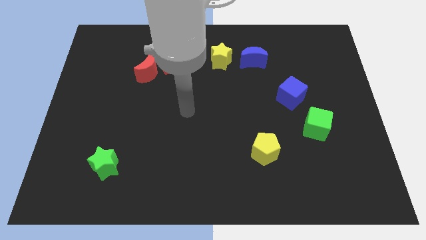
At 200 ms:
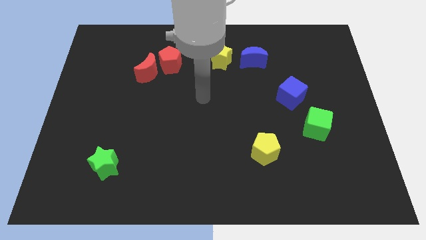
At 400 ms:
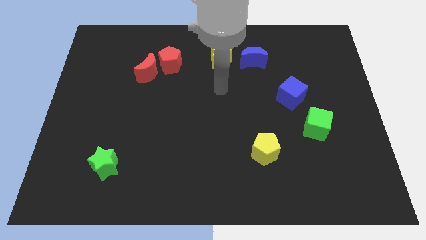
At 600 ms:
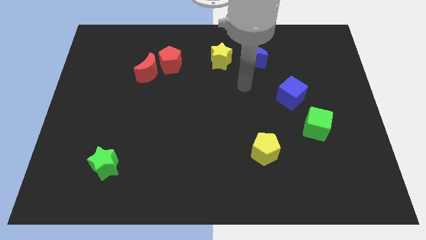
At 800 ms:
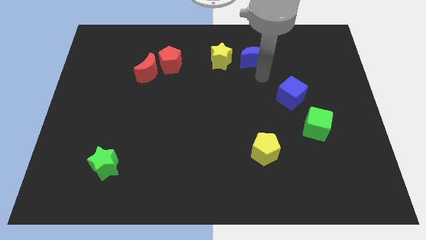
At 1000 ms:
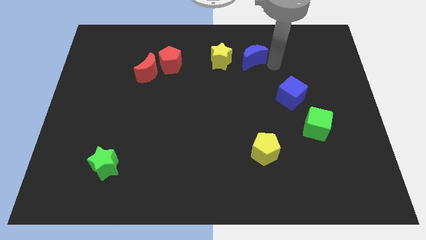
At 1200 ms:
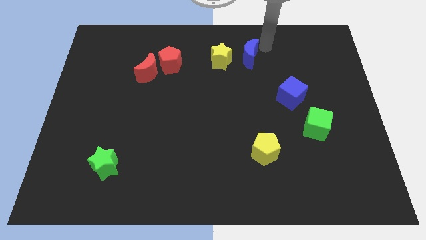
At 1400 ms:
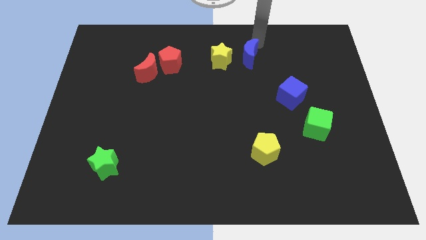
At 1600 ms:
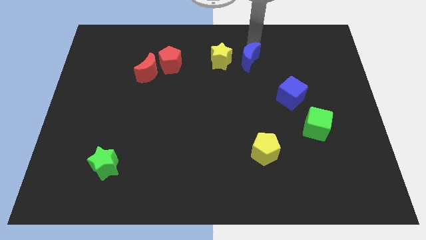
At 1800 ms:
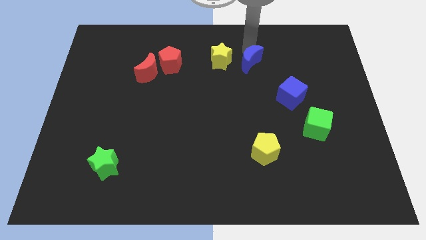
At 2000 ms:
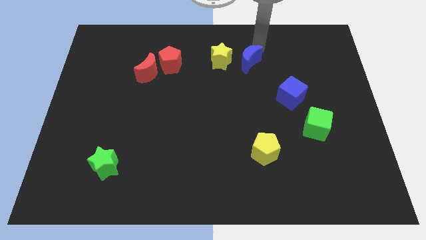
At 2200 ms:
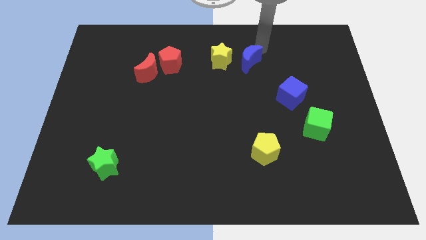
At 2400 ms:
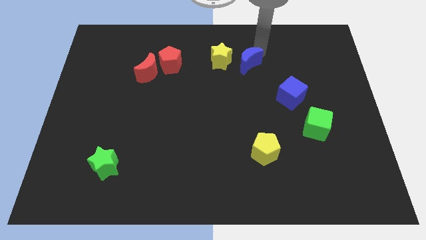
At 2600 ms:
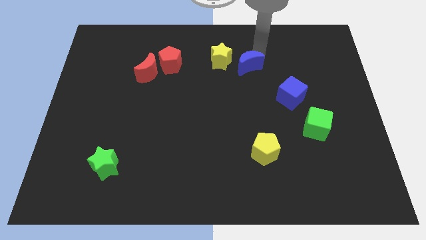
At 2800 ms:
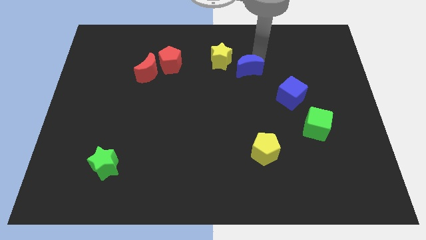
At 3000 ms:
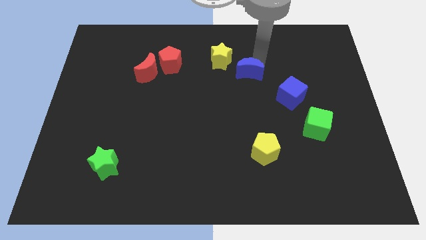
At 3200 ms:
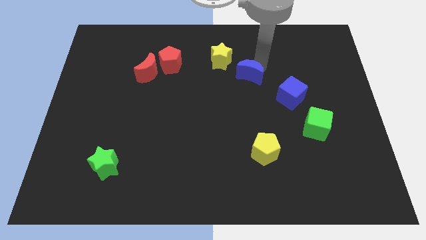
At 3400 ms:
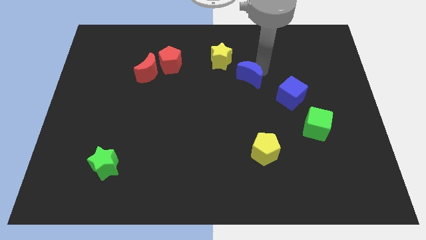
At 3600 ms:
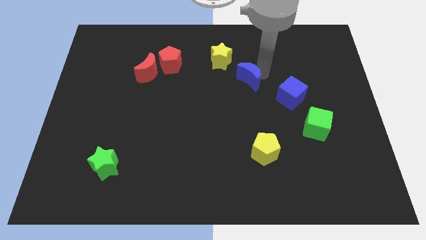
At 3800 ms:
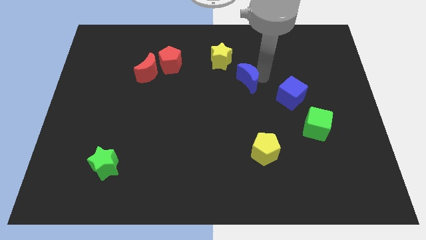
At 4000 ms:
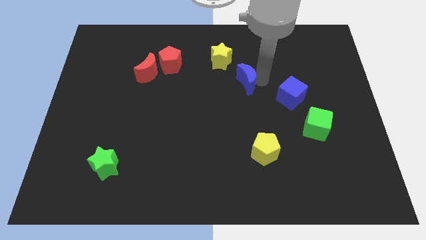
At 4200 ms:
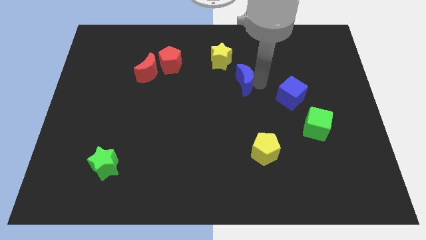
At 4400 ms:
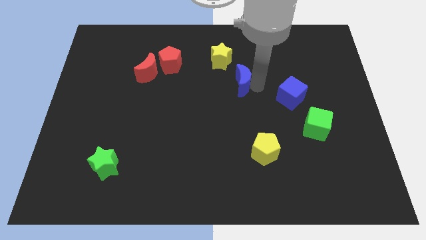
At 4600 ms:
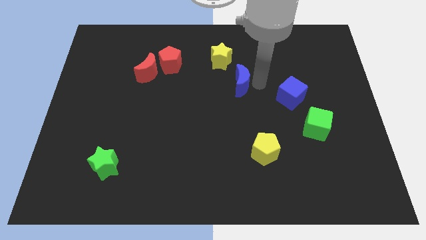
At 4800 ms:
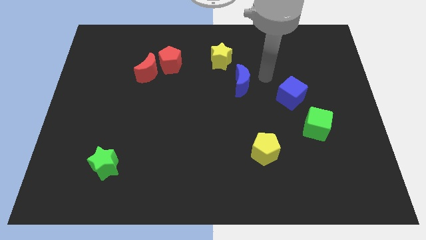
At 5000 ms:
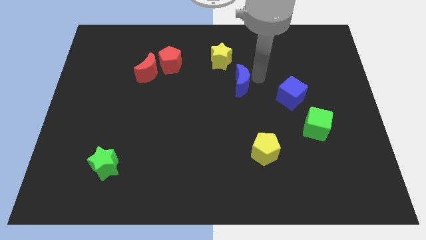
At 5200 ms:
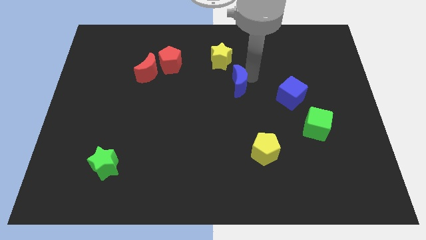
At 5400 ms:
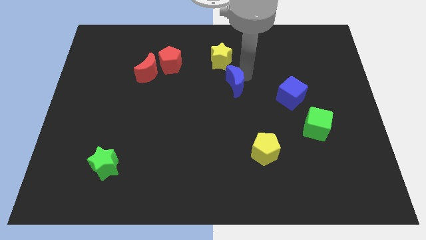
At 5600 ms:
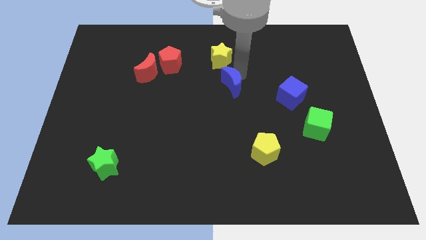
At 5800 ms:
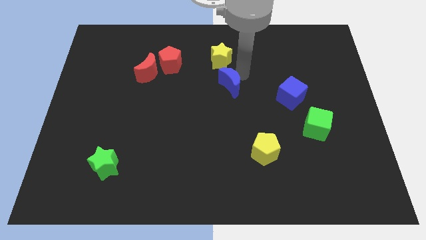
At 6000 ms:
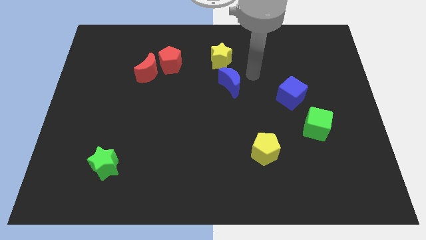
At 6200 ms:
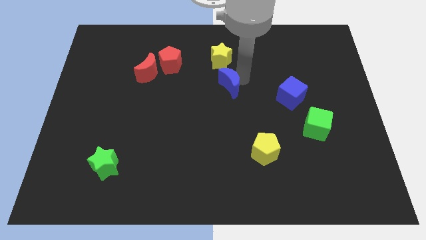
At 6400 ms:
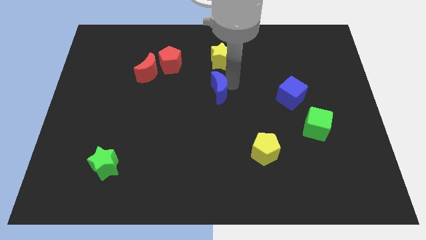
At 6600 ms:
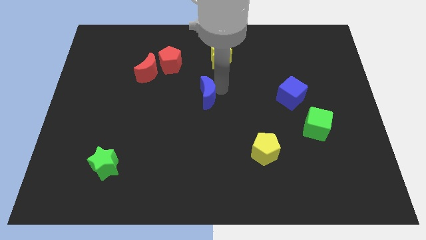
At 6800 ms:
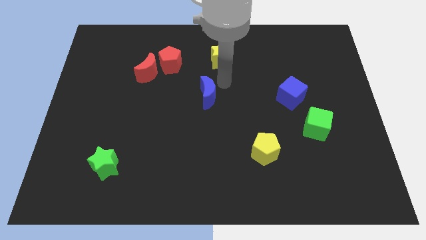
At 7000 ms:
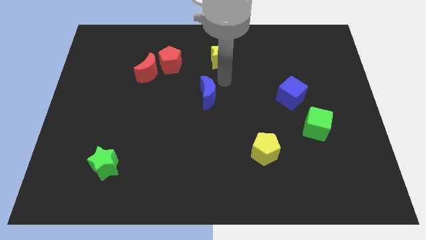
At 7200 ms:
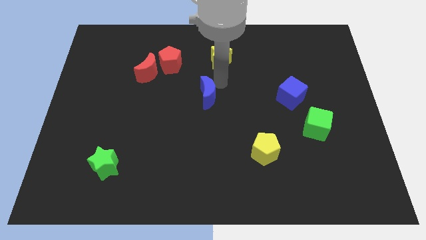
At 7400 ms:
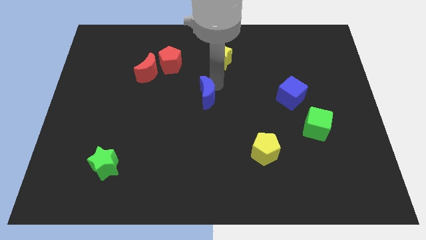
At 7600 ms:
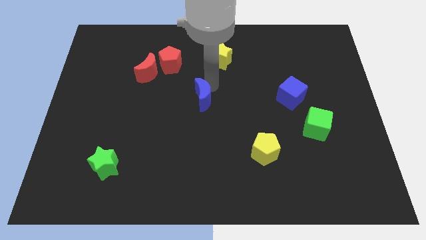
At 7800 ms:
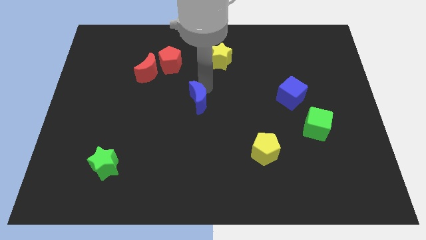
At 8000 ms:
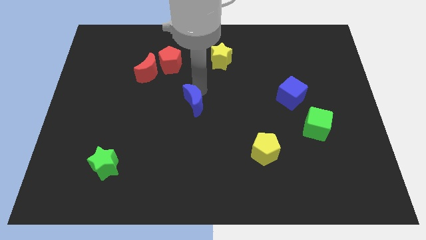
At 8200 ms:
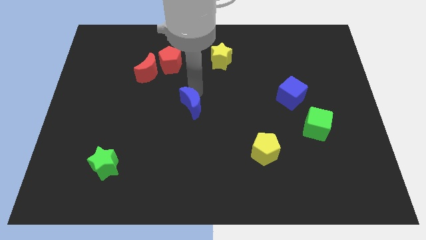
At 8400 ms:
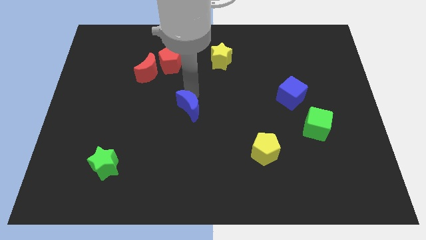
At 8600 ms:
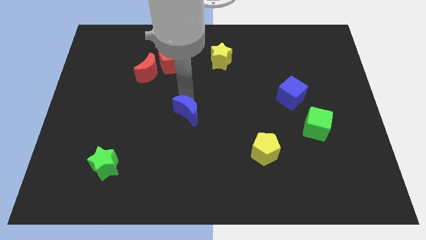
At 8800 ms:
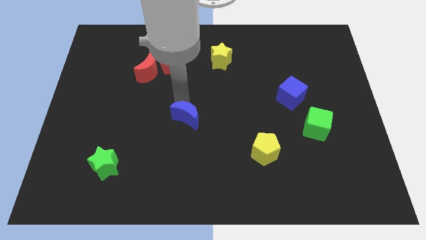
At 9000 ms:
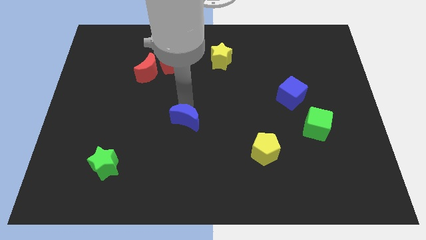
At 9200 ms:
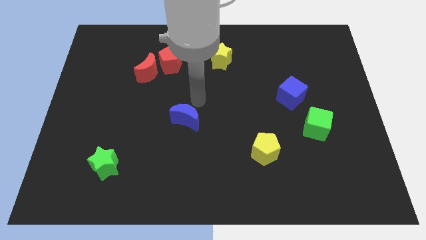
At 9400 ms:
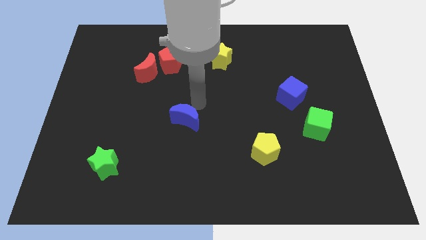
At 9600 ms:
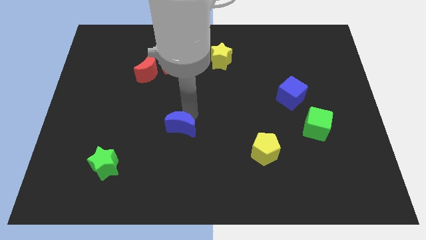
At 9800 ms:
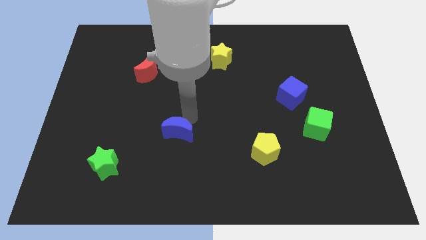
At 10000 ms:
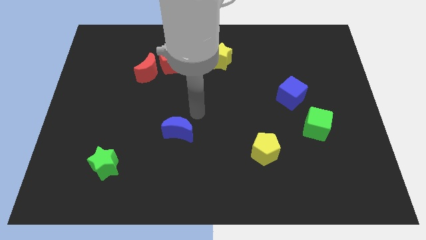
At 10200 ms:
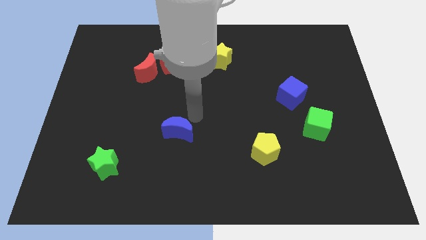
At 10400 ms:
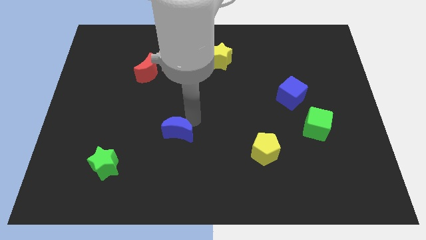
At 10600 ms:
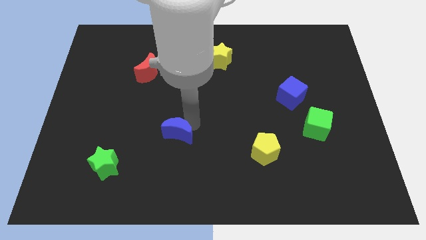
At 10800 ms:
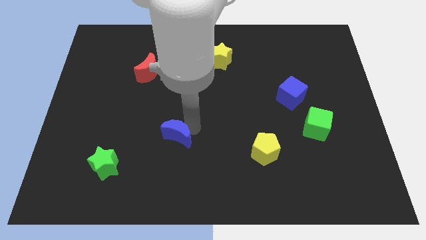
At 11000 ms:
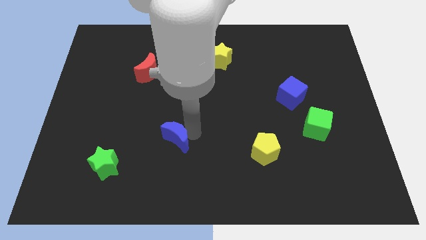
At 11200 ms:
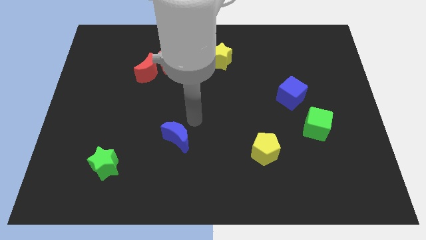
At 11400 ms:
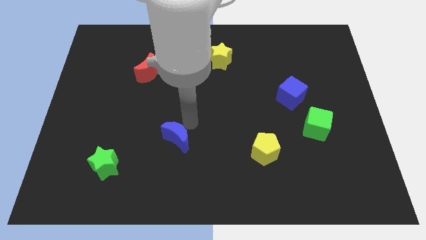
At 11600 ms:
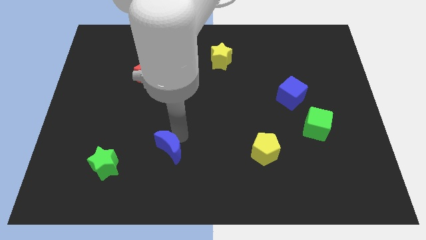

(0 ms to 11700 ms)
push the blue moon to the right of the green star
